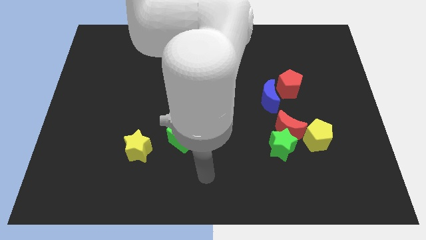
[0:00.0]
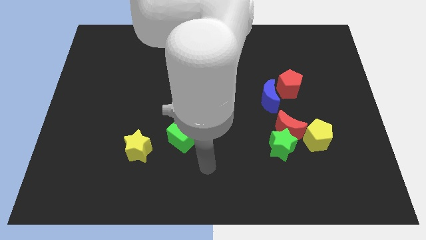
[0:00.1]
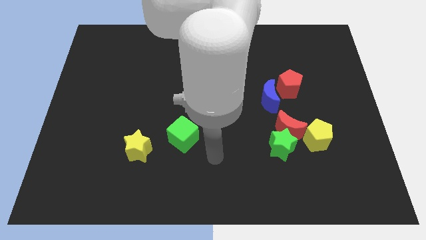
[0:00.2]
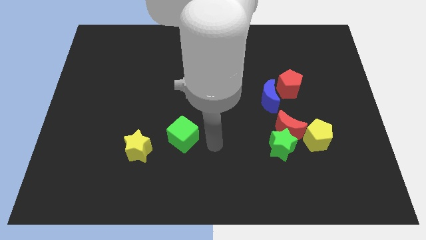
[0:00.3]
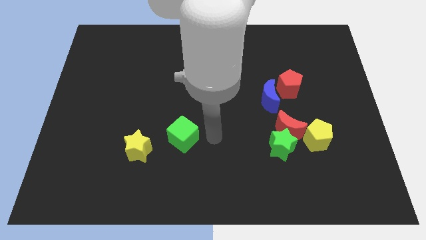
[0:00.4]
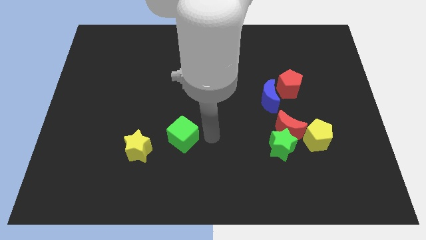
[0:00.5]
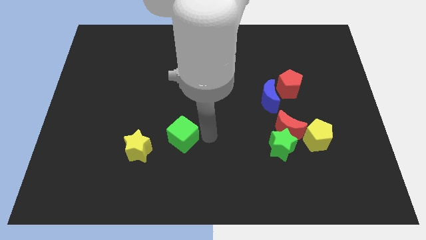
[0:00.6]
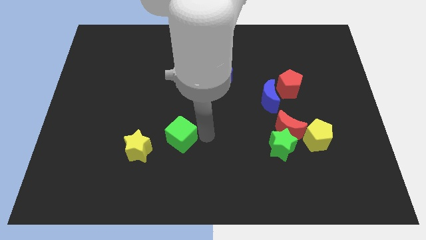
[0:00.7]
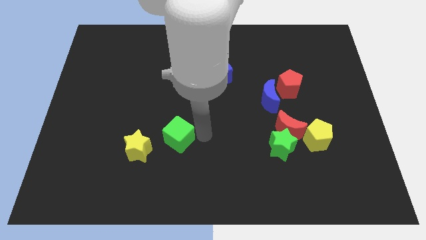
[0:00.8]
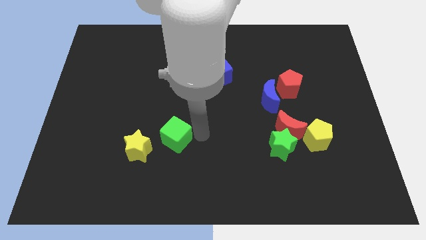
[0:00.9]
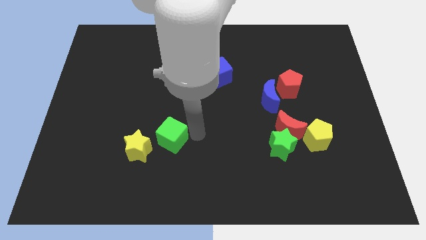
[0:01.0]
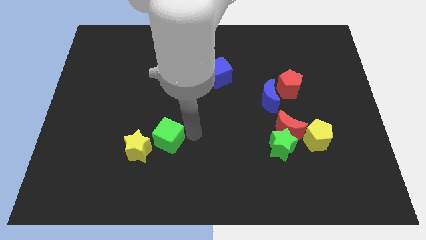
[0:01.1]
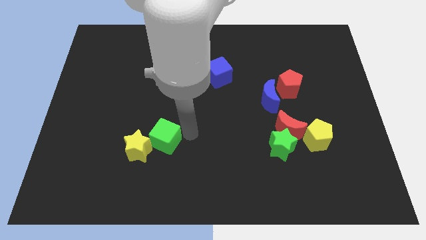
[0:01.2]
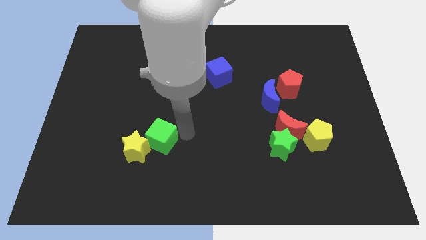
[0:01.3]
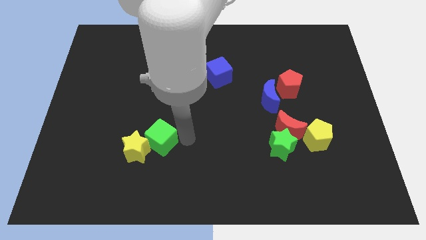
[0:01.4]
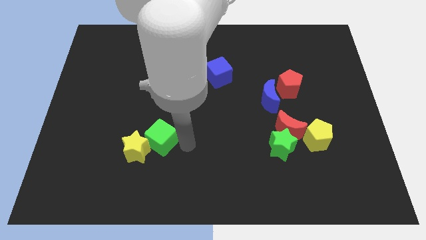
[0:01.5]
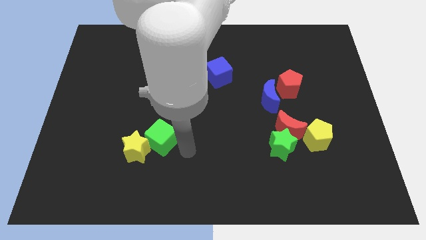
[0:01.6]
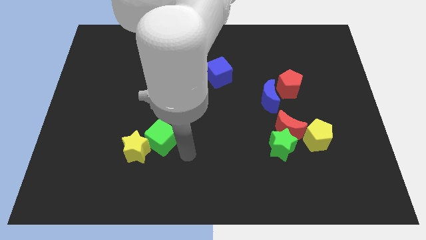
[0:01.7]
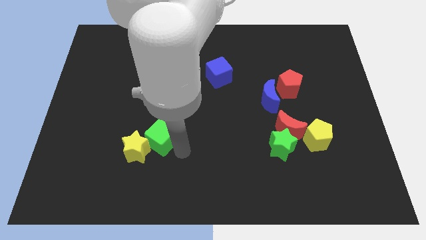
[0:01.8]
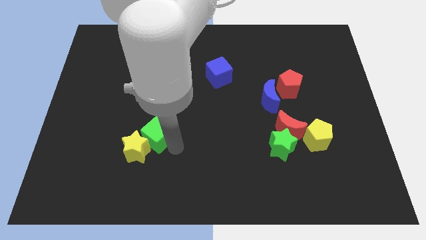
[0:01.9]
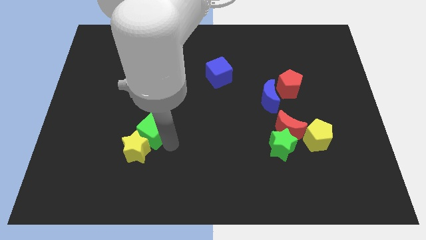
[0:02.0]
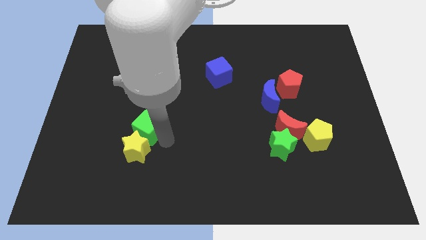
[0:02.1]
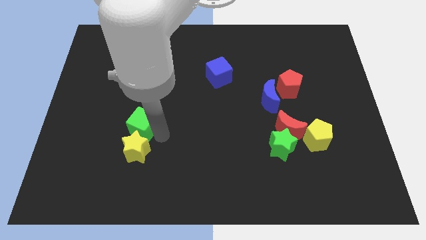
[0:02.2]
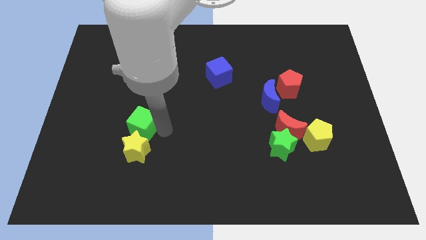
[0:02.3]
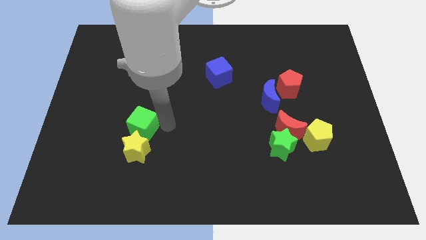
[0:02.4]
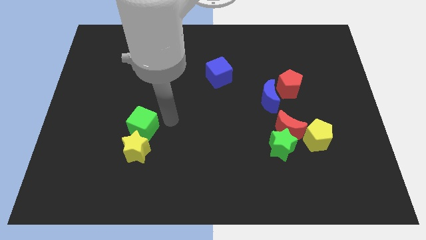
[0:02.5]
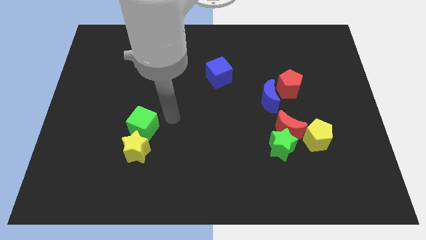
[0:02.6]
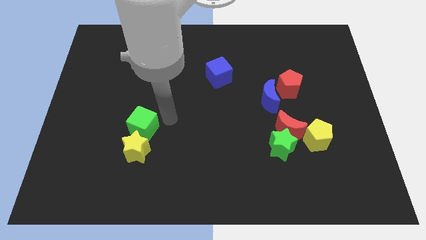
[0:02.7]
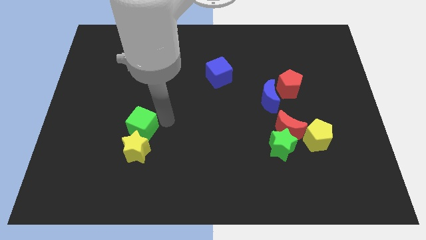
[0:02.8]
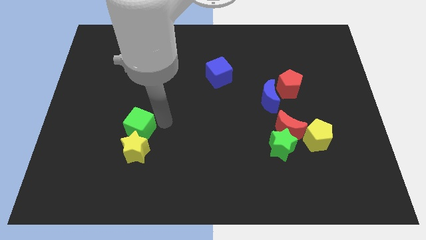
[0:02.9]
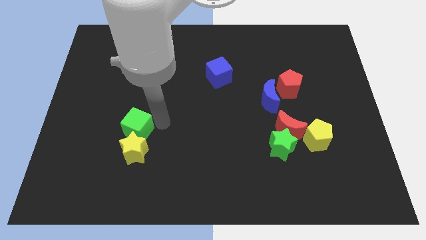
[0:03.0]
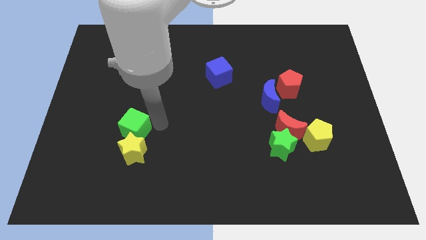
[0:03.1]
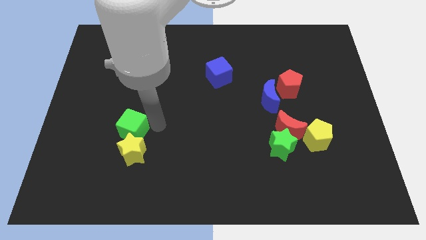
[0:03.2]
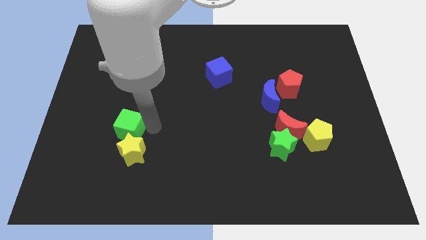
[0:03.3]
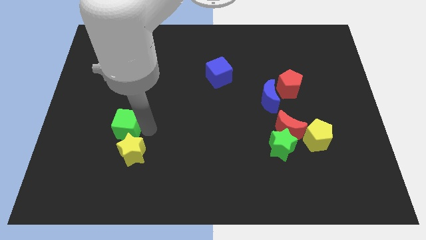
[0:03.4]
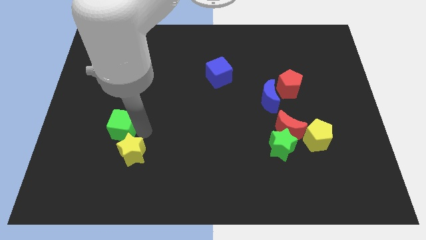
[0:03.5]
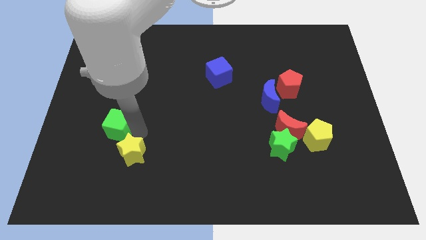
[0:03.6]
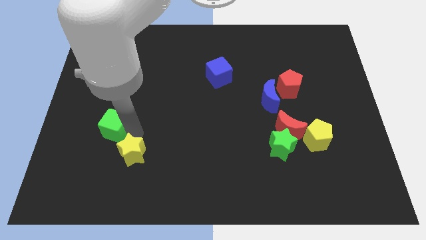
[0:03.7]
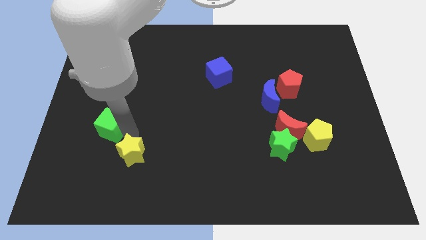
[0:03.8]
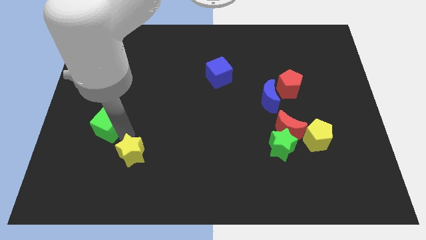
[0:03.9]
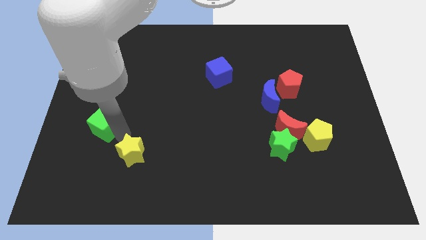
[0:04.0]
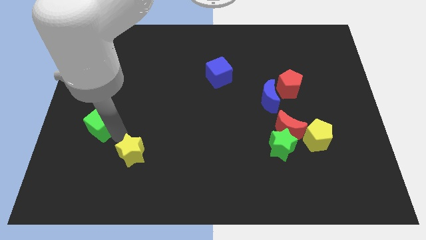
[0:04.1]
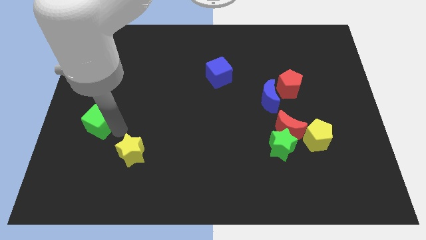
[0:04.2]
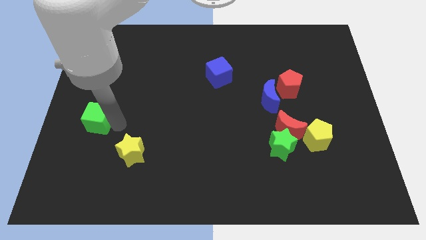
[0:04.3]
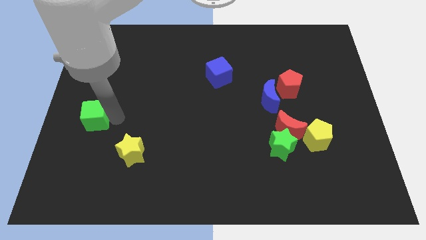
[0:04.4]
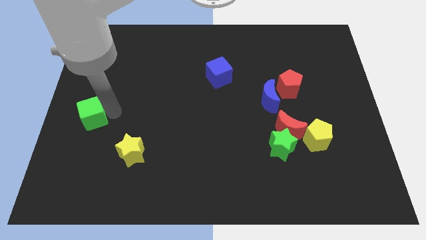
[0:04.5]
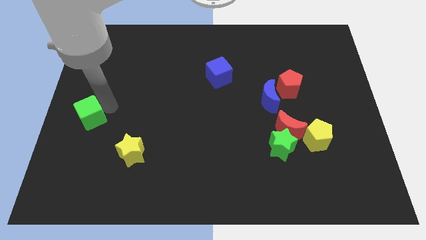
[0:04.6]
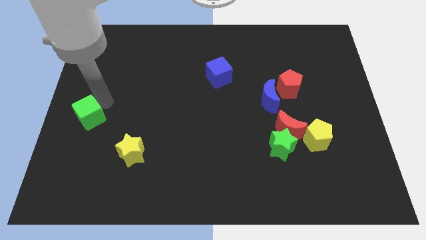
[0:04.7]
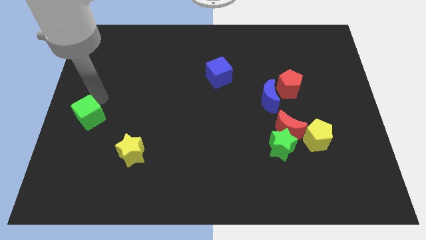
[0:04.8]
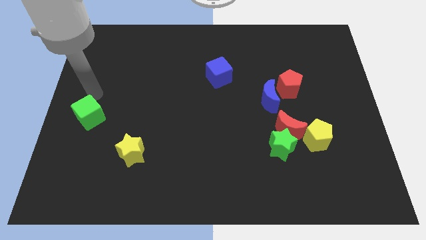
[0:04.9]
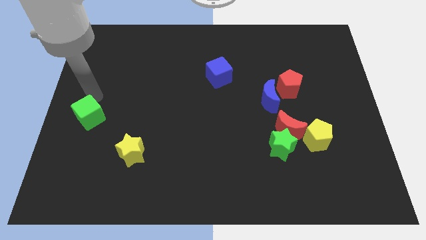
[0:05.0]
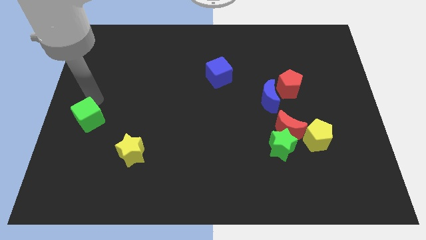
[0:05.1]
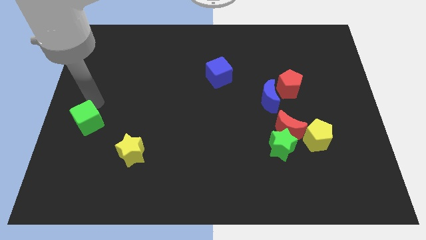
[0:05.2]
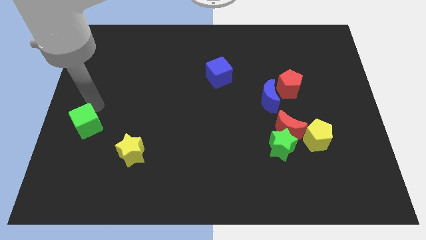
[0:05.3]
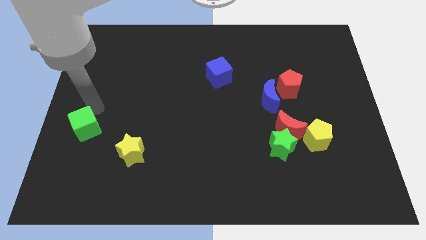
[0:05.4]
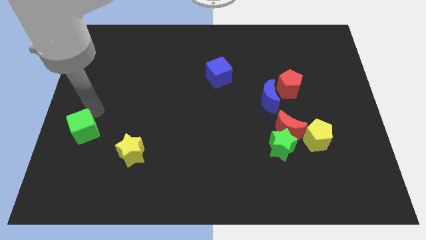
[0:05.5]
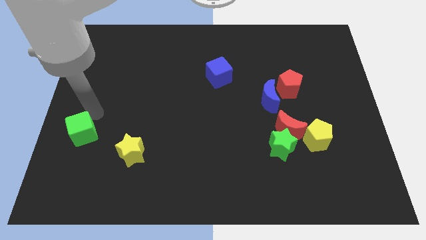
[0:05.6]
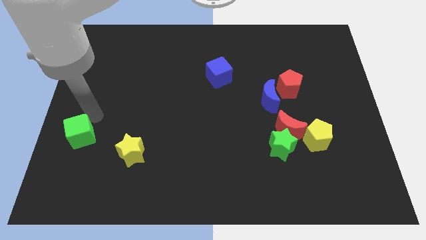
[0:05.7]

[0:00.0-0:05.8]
slide the green cube to the left side of the yellow star
